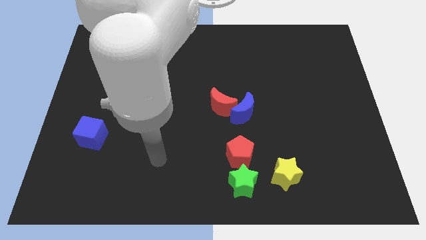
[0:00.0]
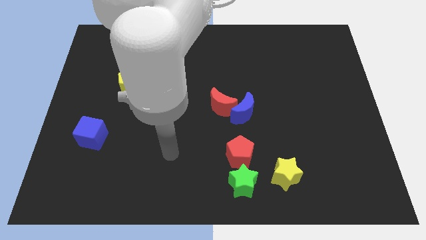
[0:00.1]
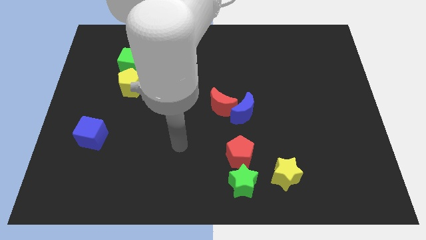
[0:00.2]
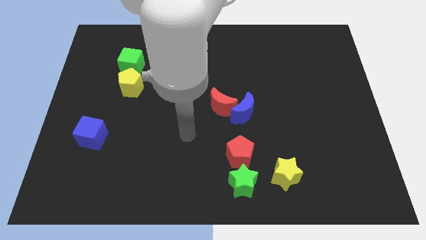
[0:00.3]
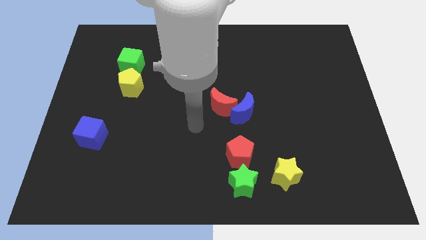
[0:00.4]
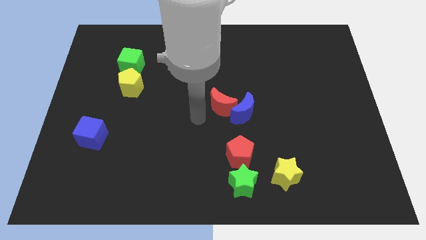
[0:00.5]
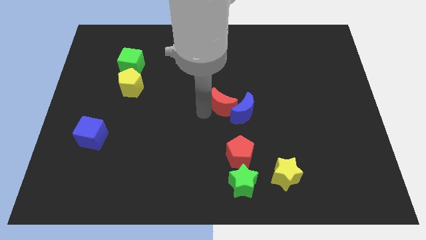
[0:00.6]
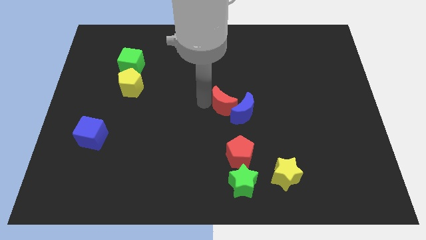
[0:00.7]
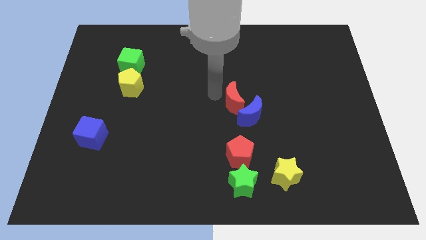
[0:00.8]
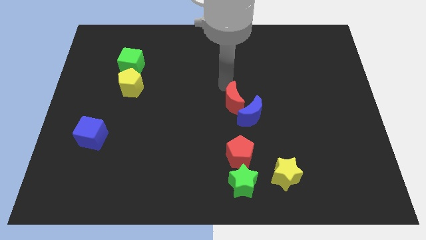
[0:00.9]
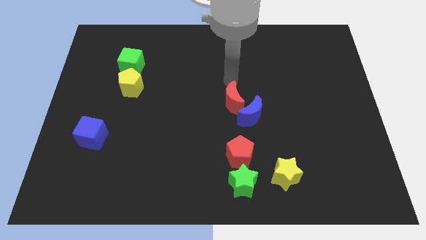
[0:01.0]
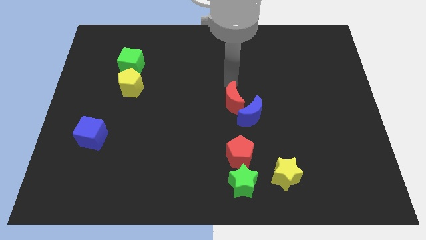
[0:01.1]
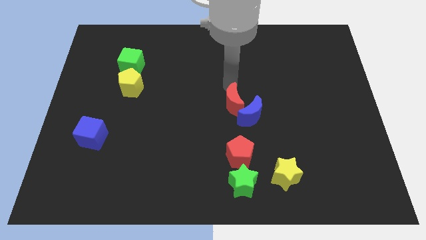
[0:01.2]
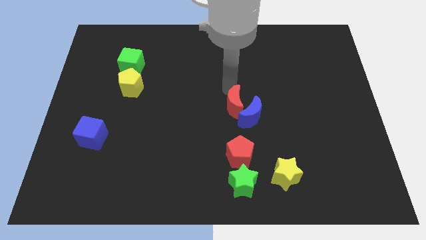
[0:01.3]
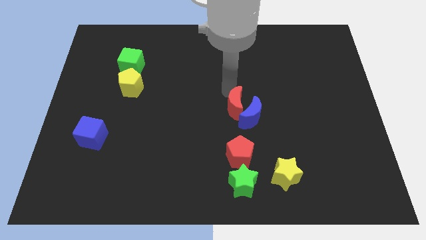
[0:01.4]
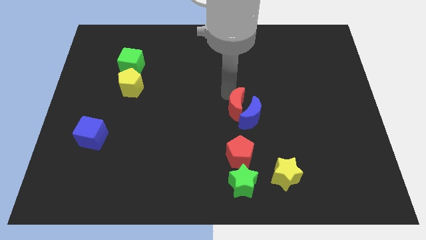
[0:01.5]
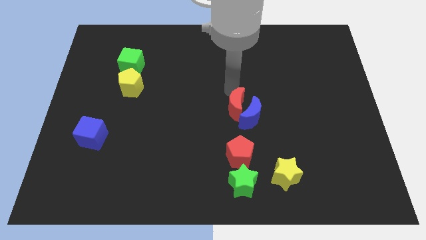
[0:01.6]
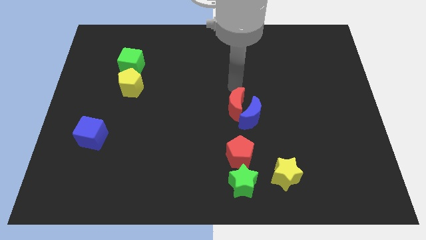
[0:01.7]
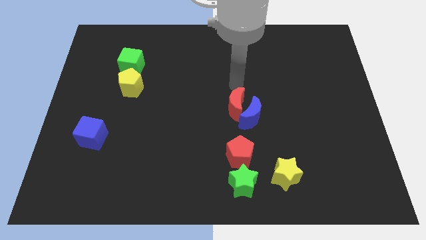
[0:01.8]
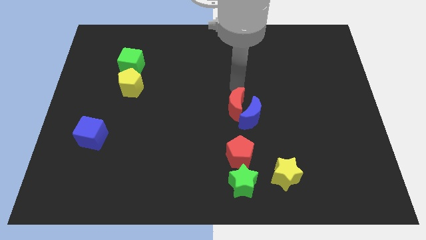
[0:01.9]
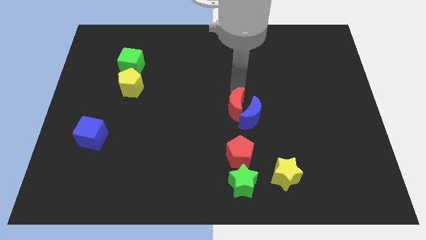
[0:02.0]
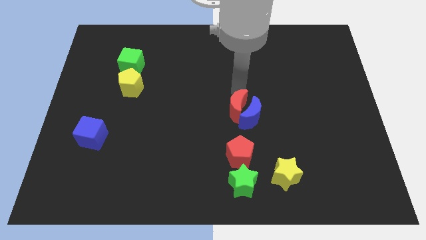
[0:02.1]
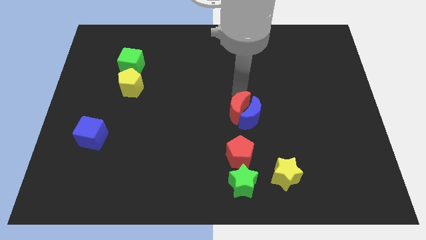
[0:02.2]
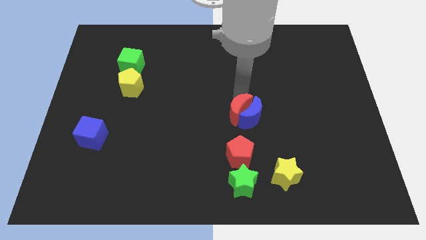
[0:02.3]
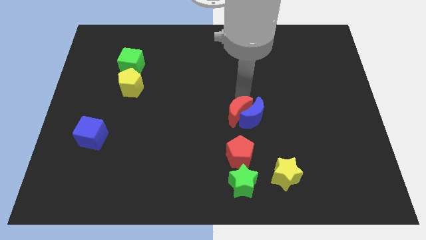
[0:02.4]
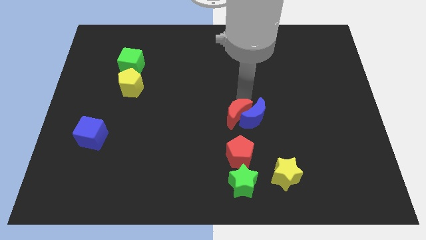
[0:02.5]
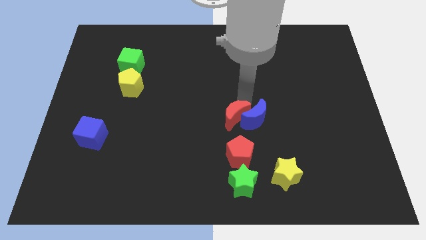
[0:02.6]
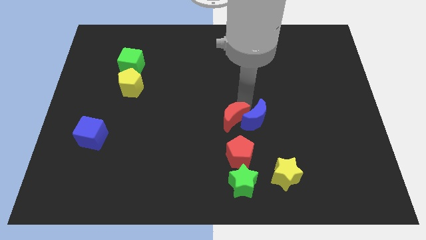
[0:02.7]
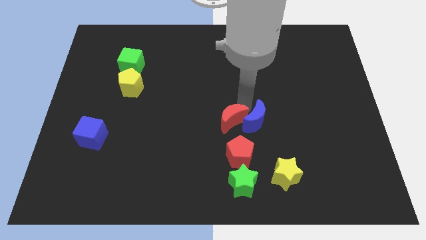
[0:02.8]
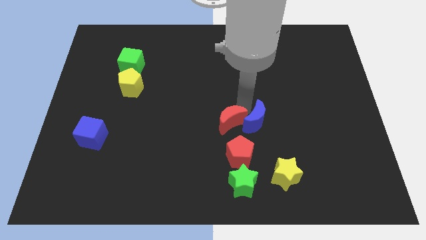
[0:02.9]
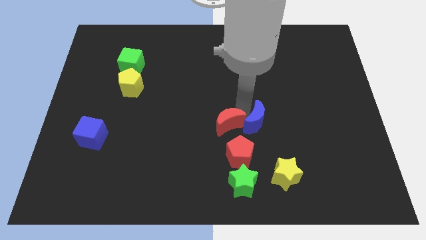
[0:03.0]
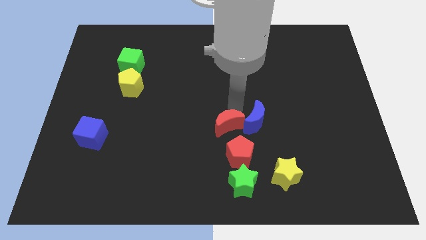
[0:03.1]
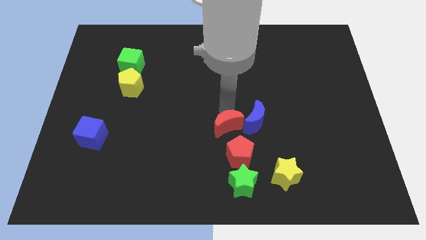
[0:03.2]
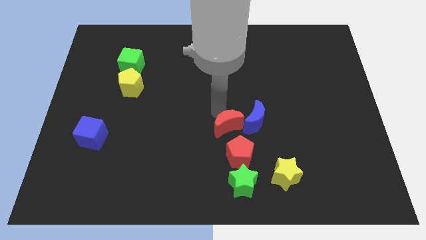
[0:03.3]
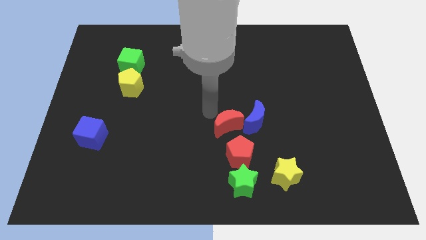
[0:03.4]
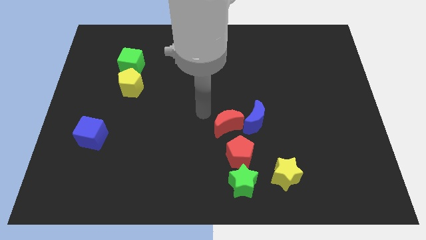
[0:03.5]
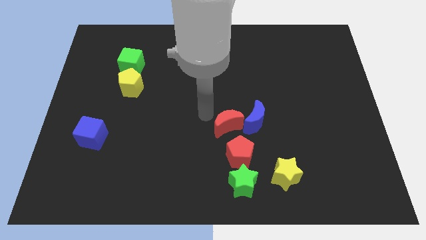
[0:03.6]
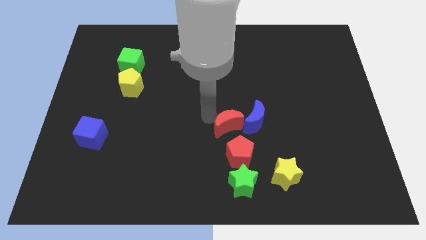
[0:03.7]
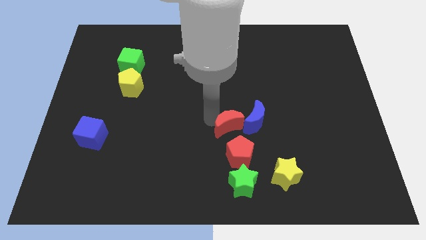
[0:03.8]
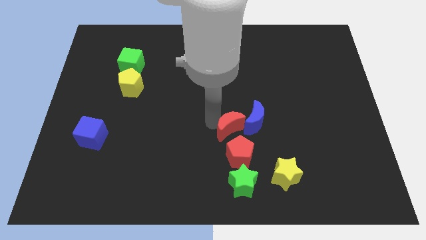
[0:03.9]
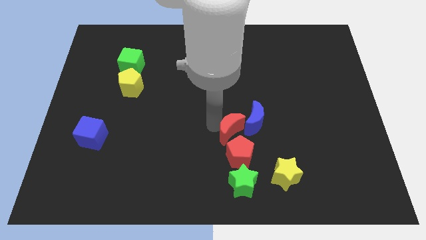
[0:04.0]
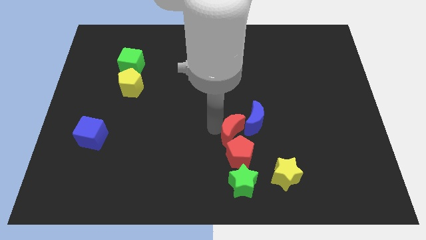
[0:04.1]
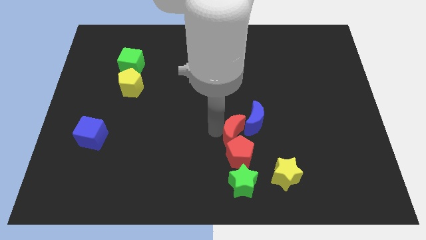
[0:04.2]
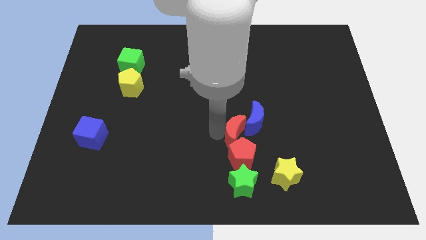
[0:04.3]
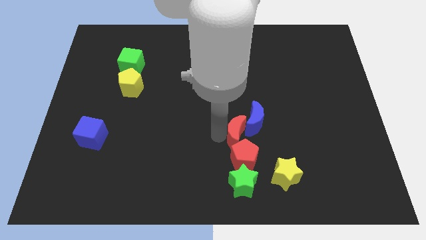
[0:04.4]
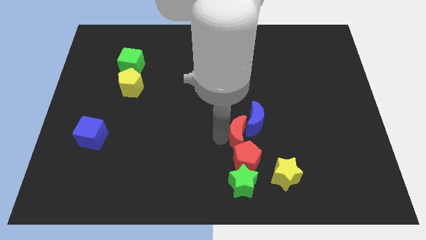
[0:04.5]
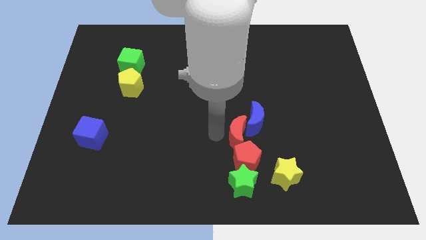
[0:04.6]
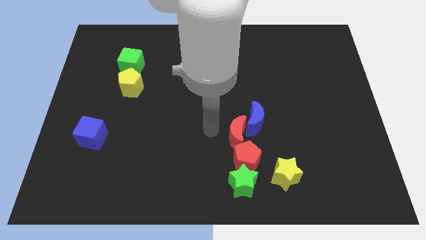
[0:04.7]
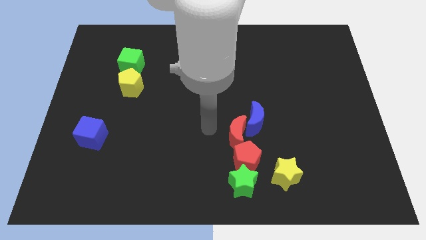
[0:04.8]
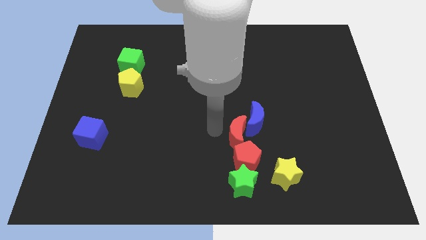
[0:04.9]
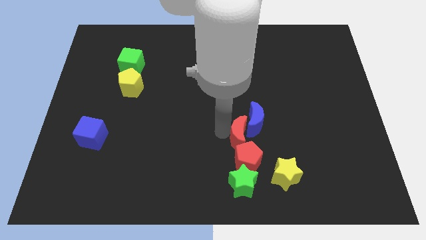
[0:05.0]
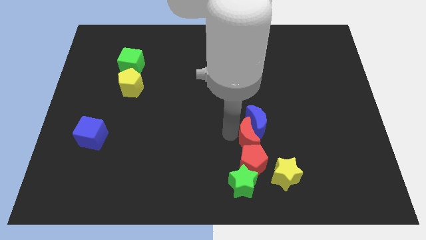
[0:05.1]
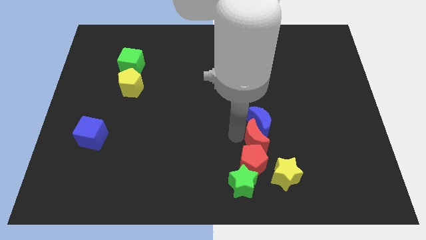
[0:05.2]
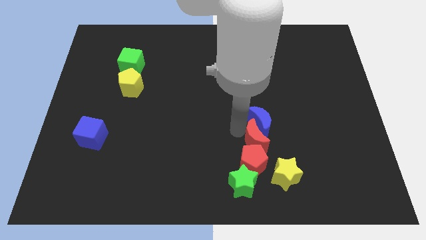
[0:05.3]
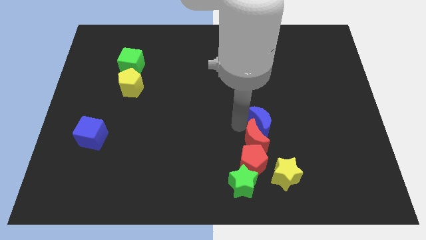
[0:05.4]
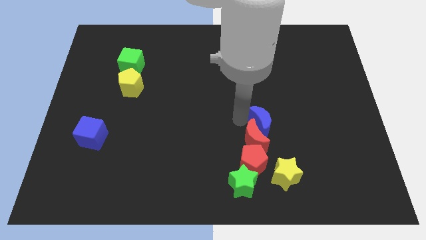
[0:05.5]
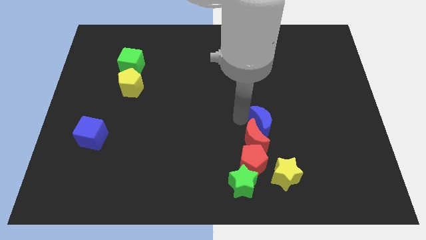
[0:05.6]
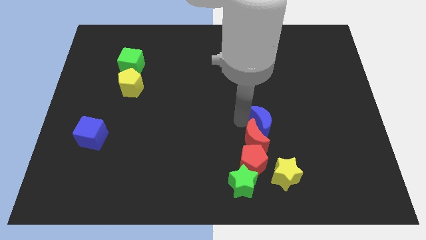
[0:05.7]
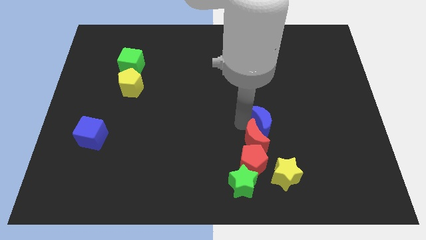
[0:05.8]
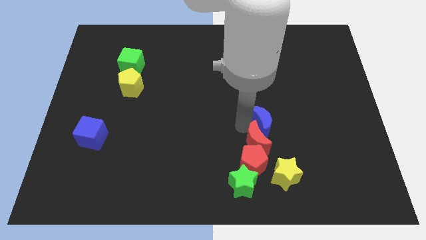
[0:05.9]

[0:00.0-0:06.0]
slide the red moon to the top right of the green star

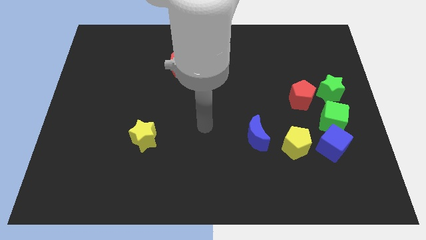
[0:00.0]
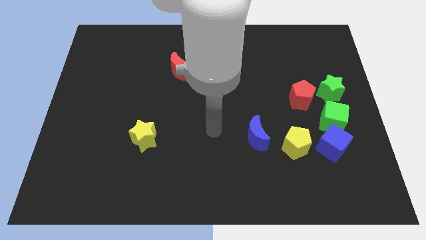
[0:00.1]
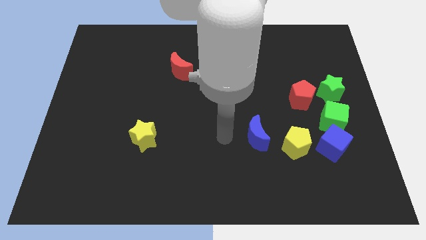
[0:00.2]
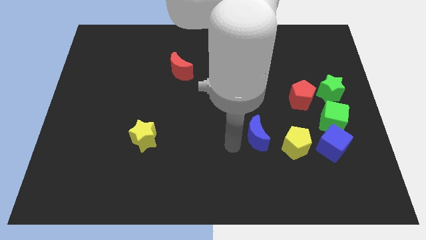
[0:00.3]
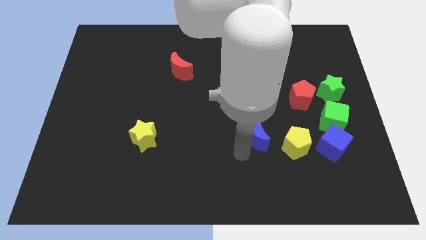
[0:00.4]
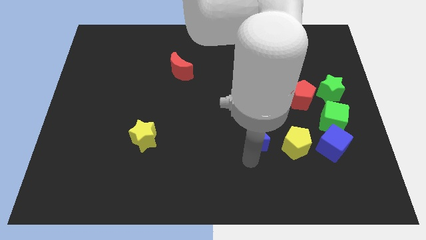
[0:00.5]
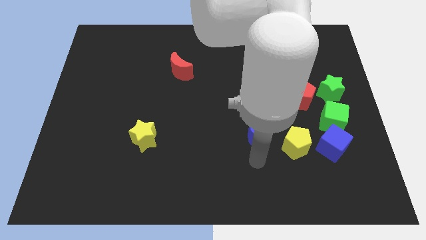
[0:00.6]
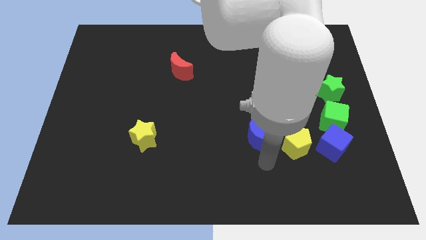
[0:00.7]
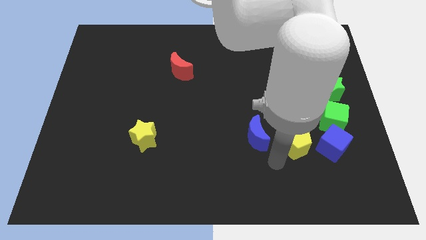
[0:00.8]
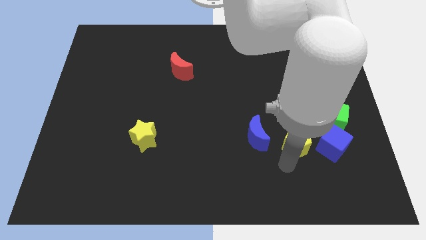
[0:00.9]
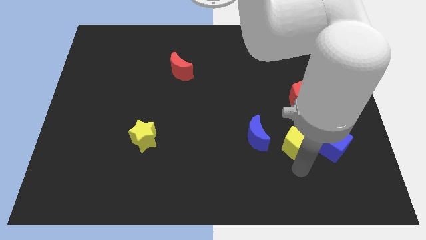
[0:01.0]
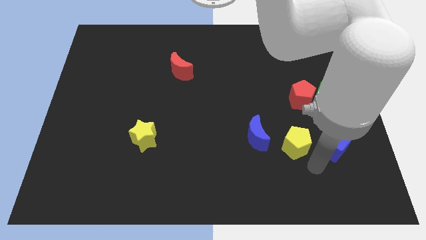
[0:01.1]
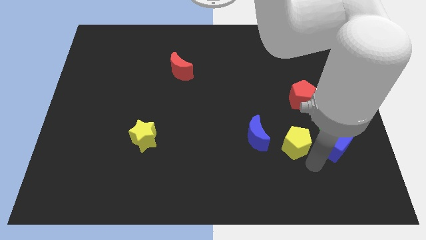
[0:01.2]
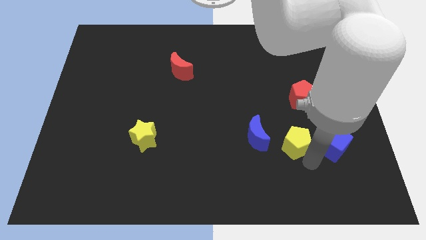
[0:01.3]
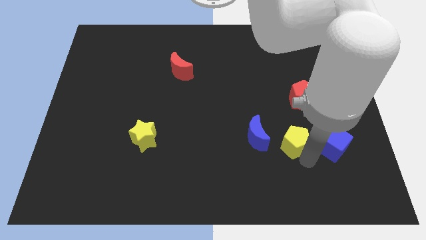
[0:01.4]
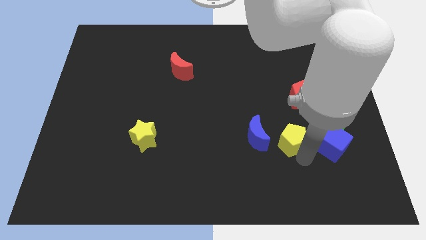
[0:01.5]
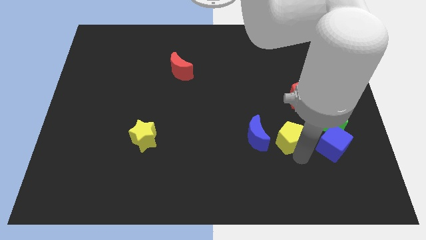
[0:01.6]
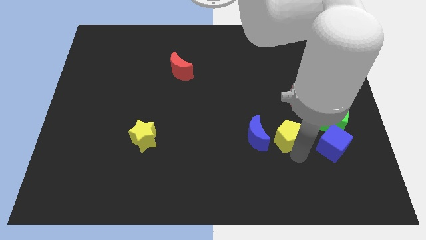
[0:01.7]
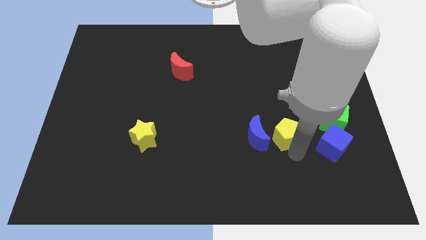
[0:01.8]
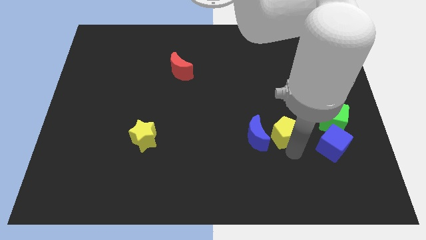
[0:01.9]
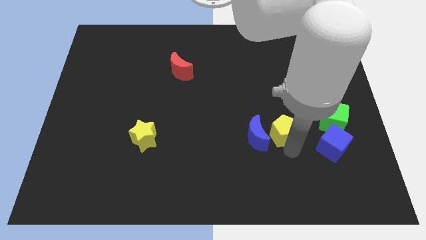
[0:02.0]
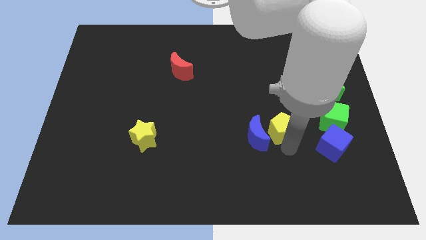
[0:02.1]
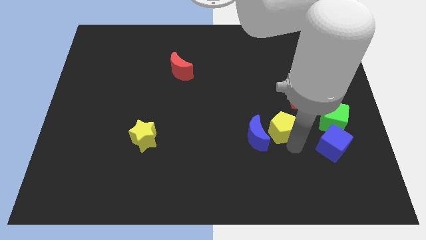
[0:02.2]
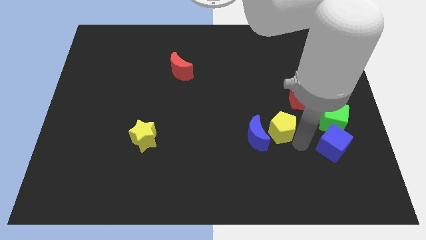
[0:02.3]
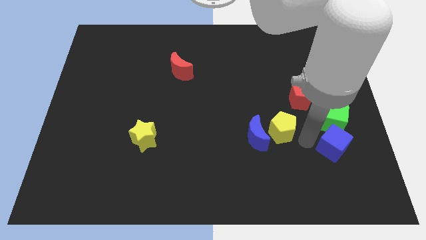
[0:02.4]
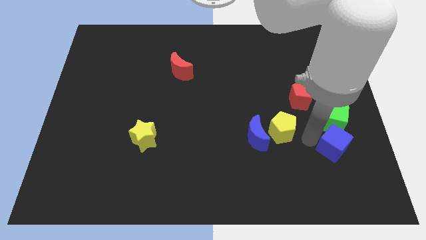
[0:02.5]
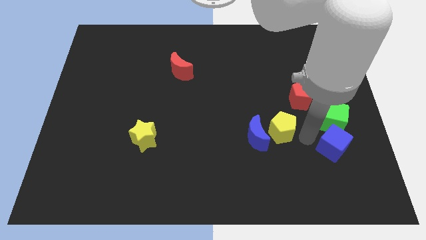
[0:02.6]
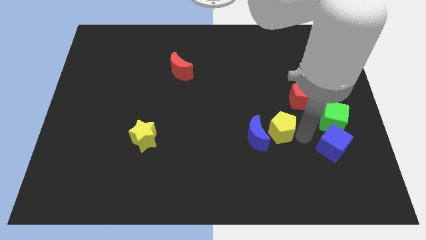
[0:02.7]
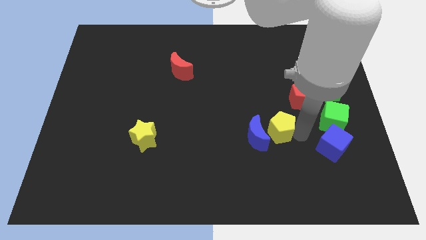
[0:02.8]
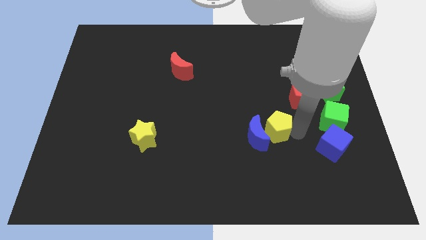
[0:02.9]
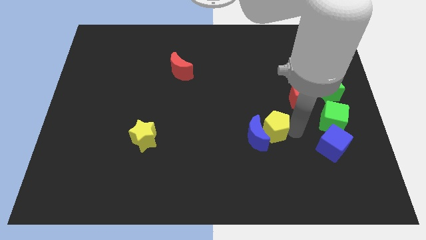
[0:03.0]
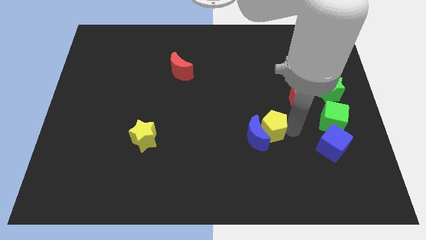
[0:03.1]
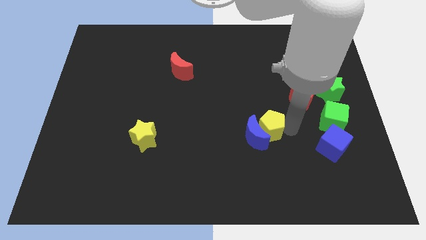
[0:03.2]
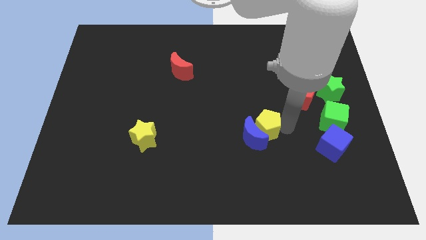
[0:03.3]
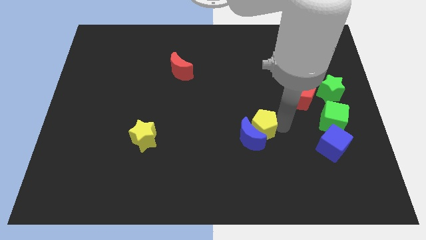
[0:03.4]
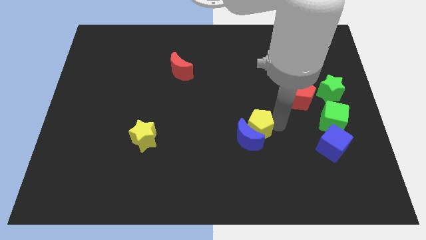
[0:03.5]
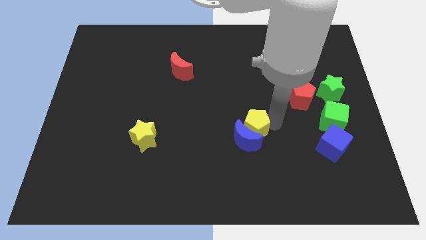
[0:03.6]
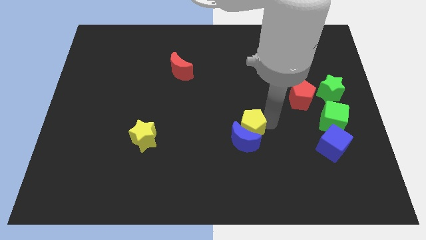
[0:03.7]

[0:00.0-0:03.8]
move the yellow pentagon to the top left of the blue moon
